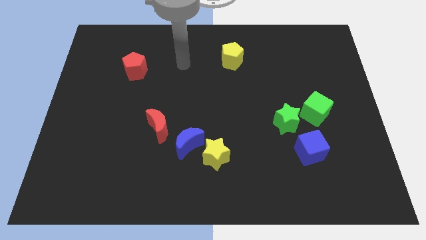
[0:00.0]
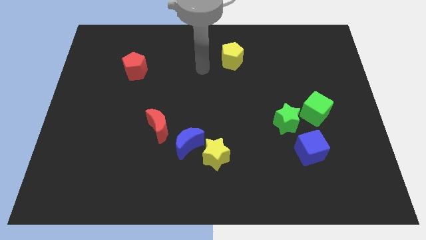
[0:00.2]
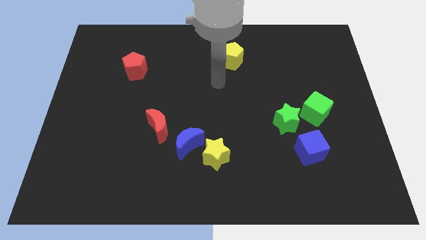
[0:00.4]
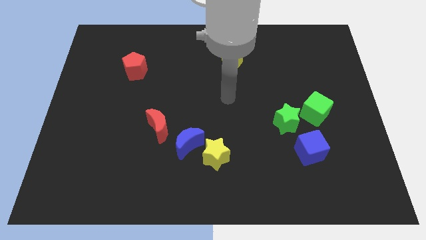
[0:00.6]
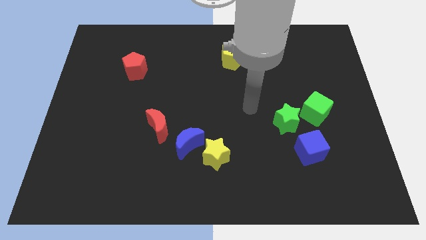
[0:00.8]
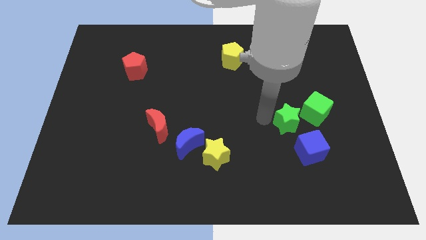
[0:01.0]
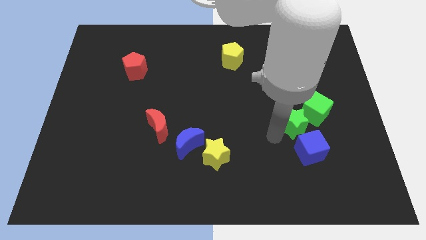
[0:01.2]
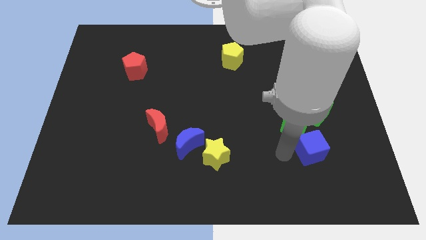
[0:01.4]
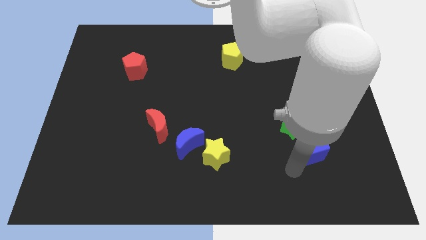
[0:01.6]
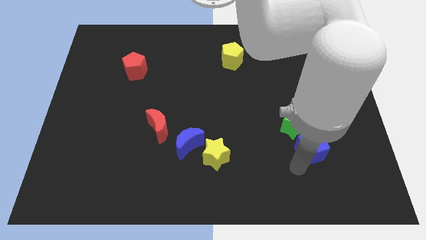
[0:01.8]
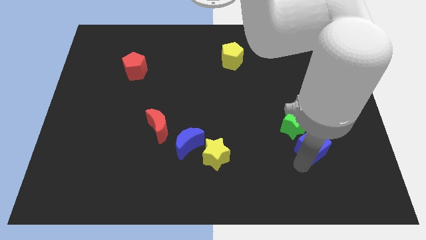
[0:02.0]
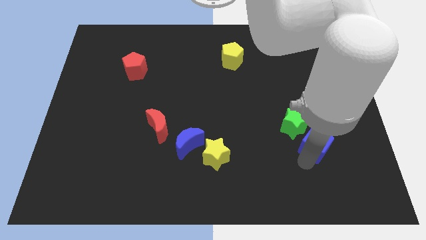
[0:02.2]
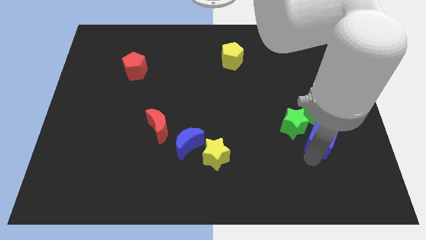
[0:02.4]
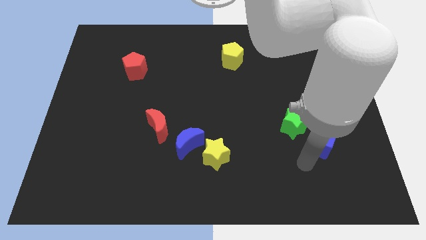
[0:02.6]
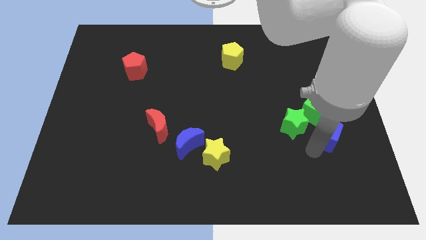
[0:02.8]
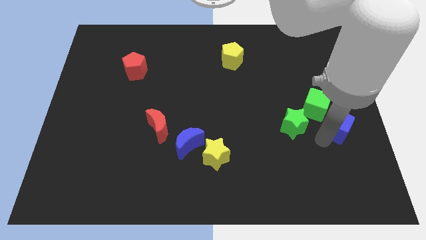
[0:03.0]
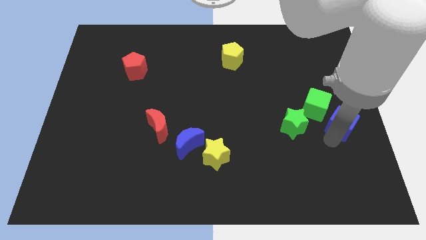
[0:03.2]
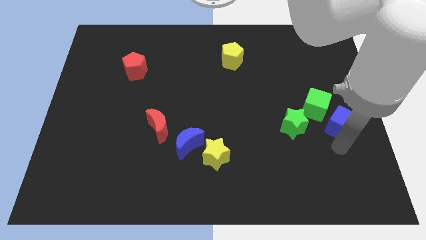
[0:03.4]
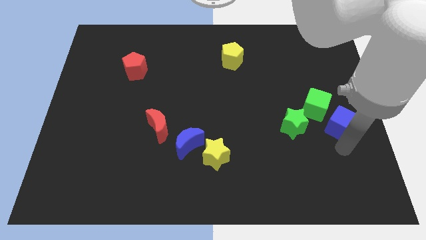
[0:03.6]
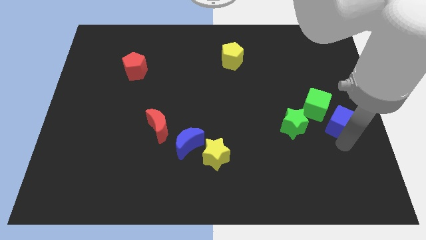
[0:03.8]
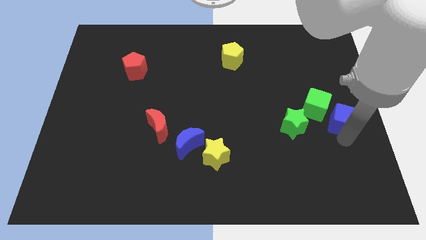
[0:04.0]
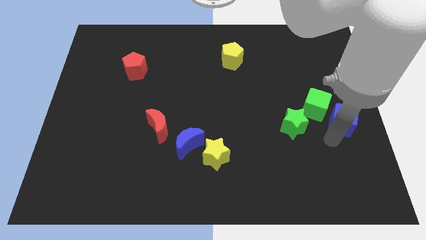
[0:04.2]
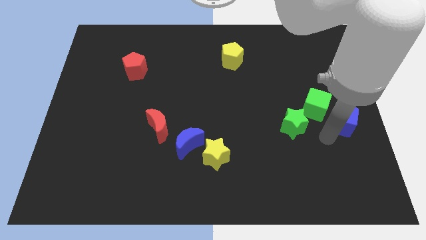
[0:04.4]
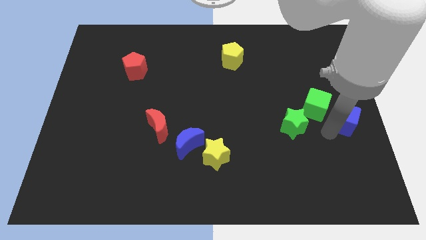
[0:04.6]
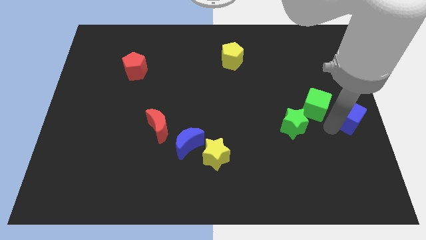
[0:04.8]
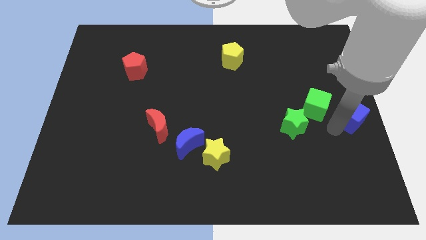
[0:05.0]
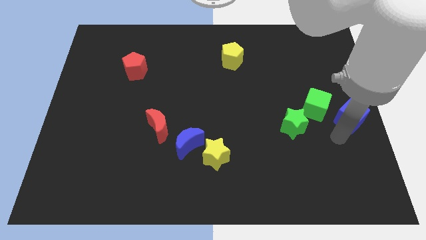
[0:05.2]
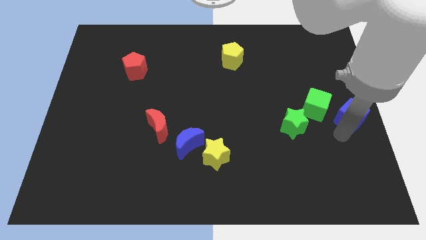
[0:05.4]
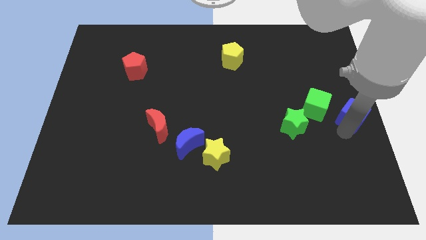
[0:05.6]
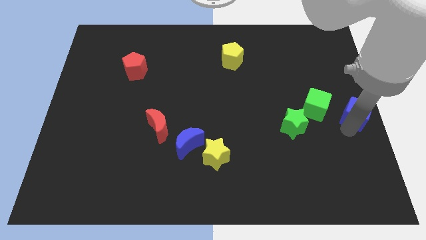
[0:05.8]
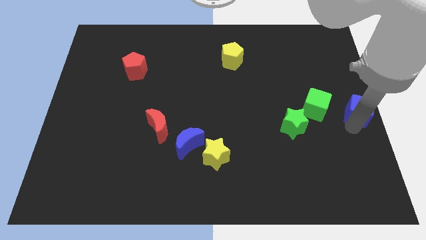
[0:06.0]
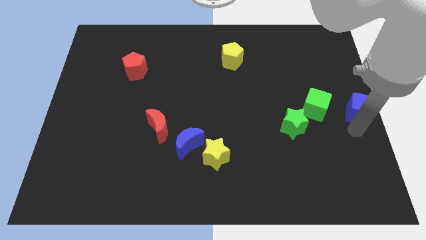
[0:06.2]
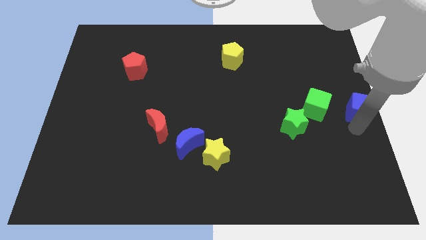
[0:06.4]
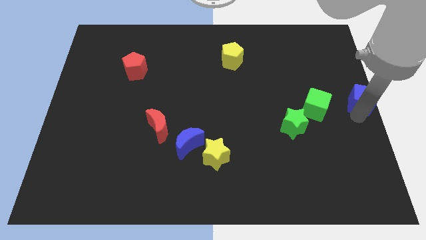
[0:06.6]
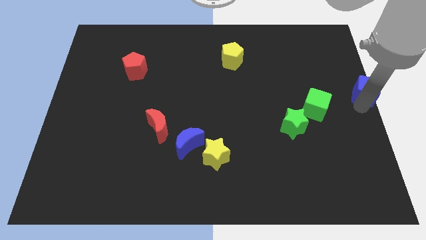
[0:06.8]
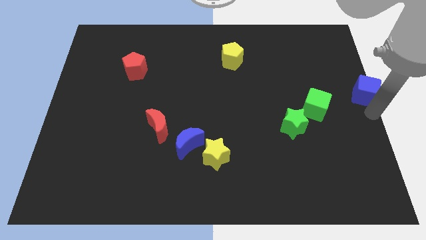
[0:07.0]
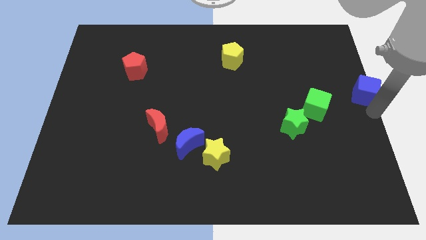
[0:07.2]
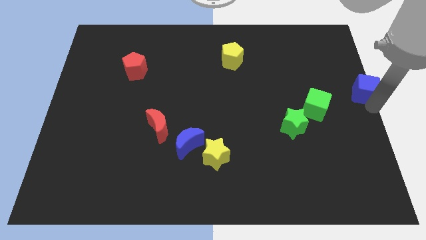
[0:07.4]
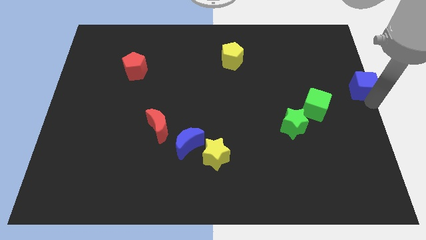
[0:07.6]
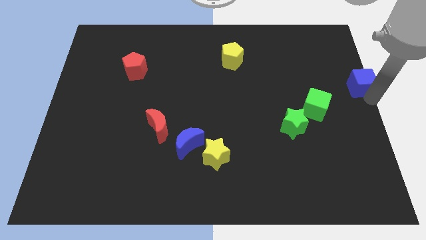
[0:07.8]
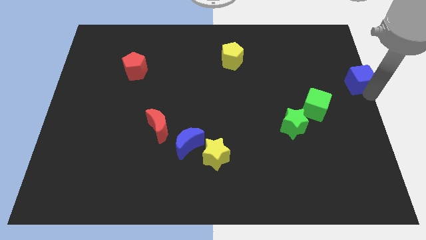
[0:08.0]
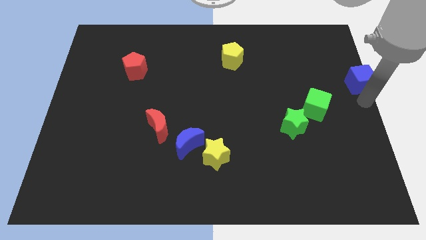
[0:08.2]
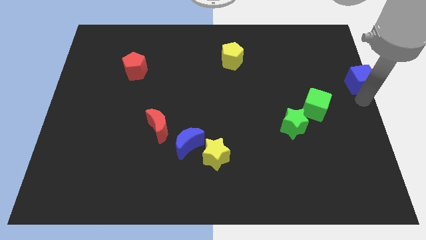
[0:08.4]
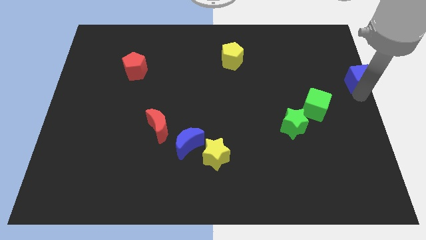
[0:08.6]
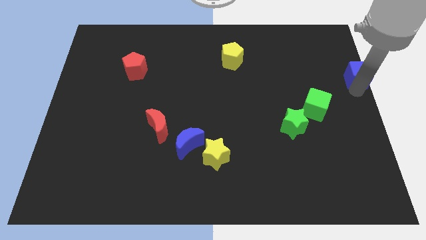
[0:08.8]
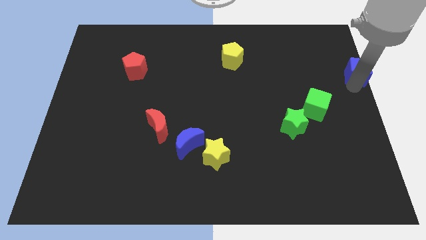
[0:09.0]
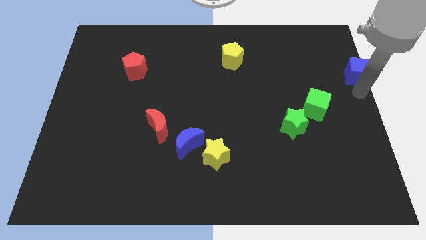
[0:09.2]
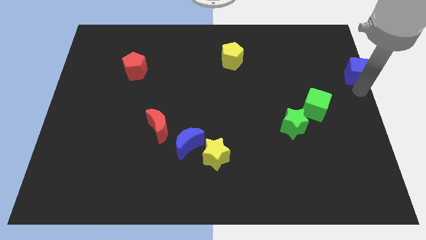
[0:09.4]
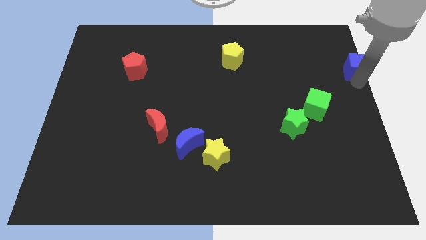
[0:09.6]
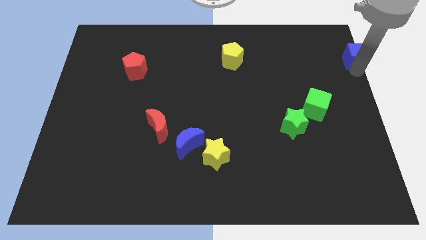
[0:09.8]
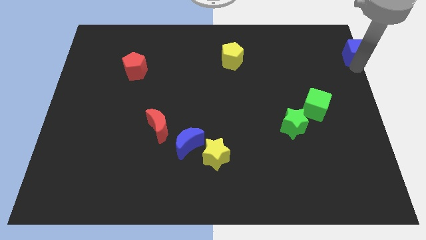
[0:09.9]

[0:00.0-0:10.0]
slide the blue cube to the top right corner

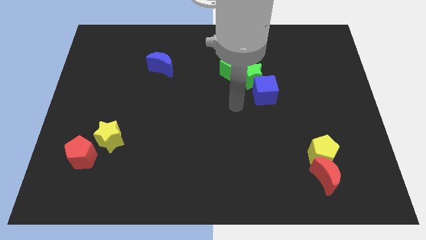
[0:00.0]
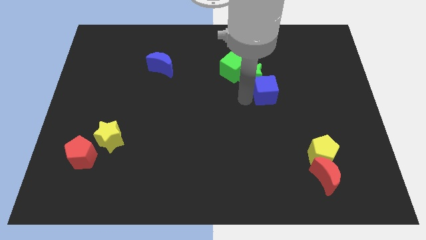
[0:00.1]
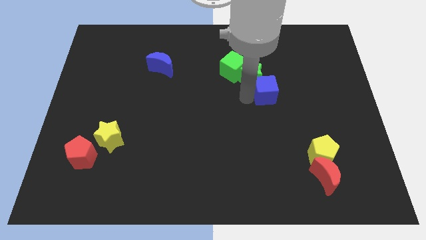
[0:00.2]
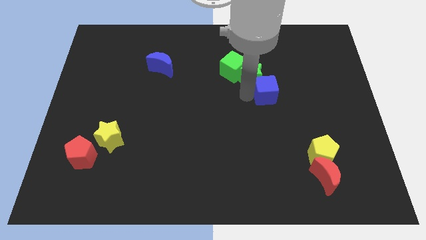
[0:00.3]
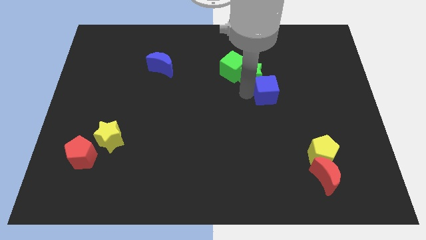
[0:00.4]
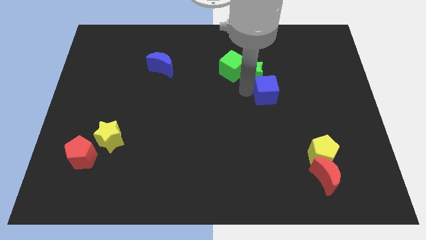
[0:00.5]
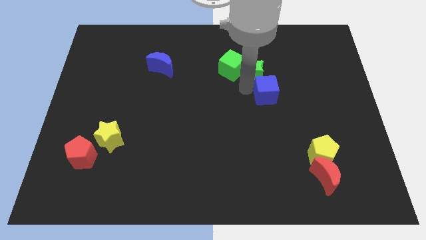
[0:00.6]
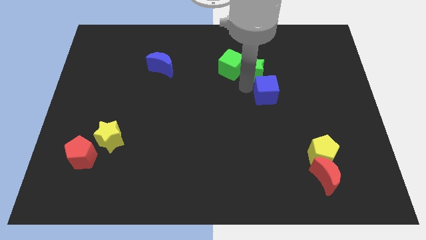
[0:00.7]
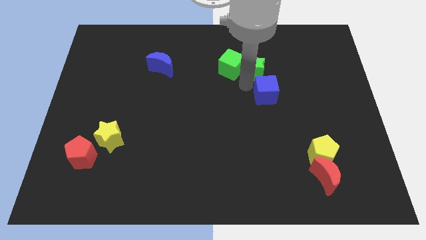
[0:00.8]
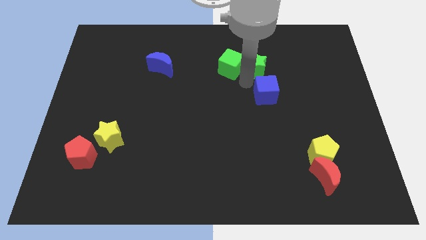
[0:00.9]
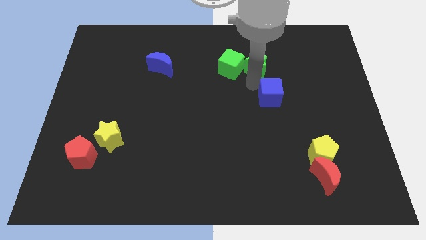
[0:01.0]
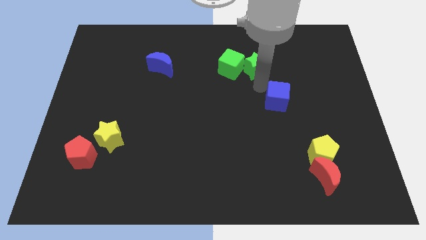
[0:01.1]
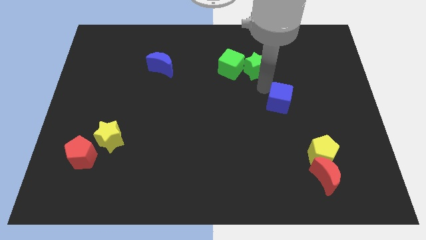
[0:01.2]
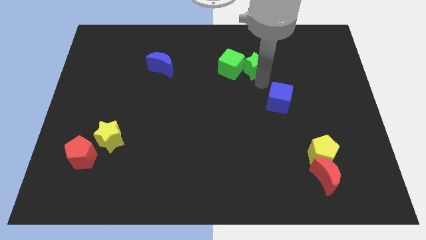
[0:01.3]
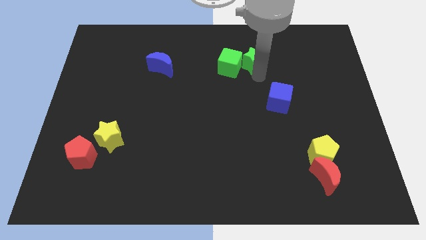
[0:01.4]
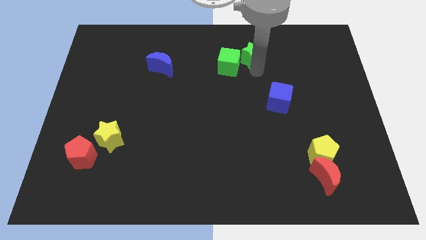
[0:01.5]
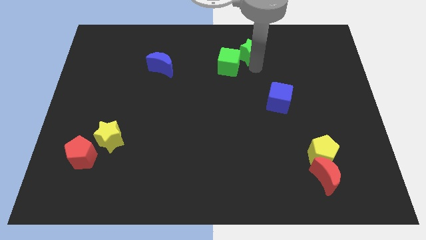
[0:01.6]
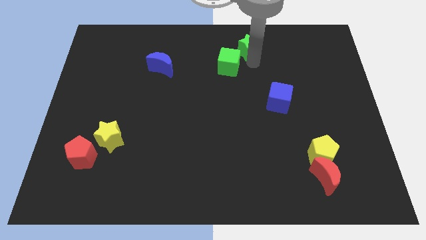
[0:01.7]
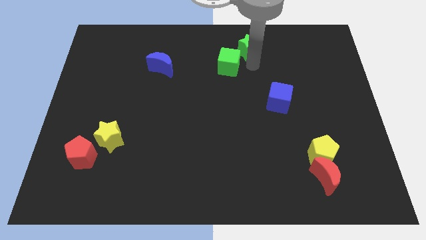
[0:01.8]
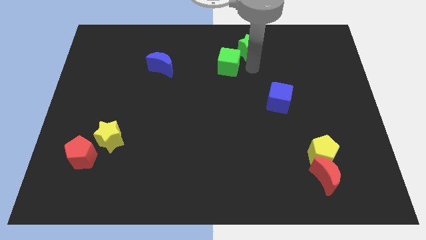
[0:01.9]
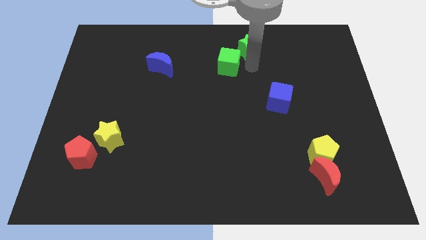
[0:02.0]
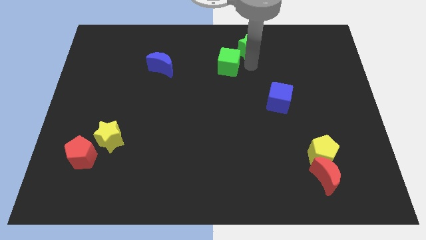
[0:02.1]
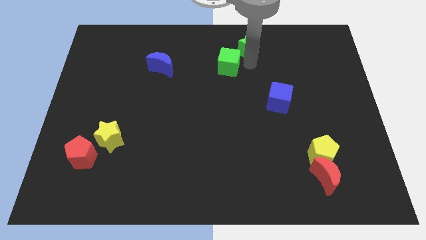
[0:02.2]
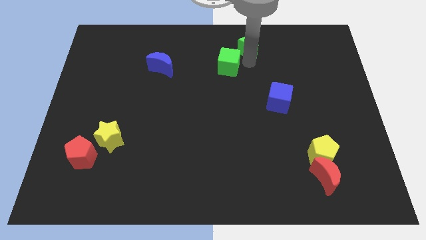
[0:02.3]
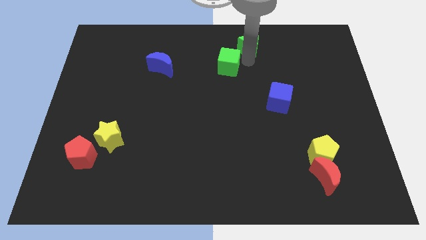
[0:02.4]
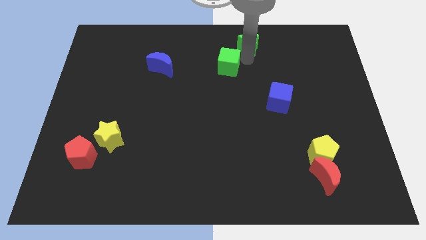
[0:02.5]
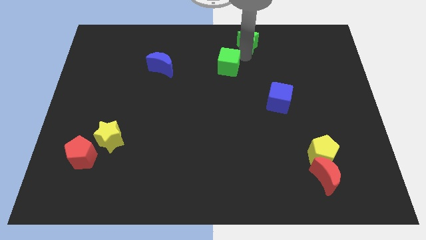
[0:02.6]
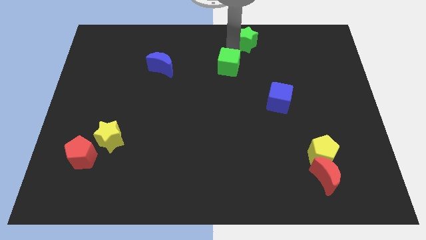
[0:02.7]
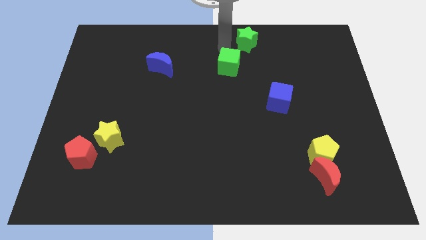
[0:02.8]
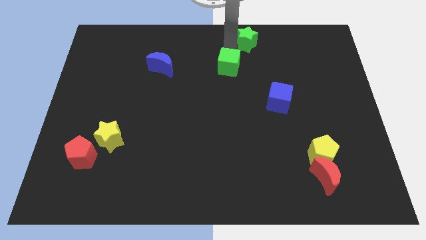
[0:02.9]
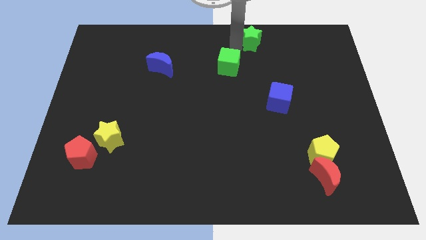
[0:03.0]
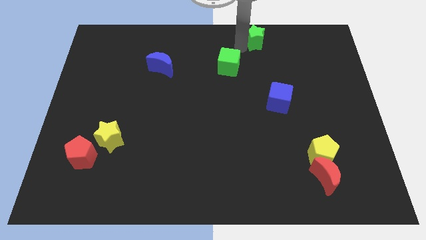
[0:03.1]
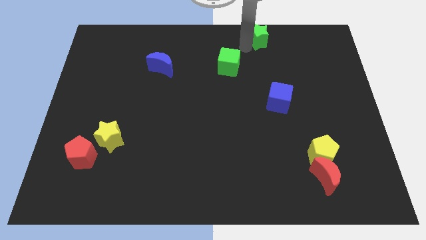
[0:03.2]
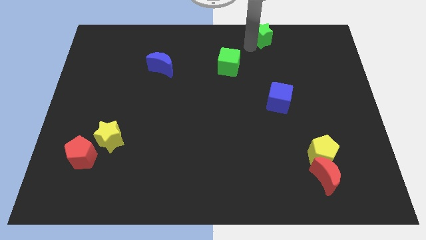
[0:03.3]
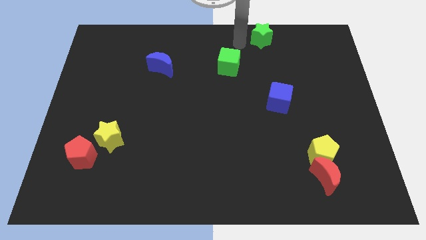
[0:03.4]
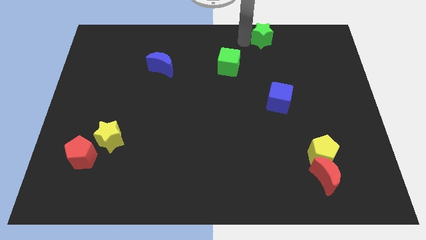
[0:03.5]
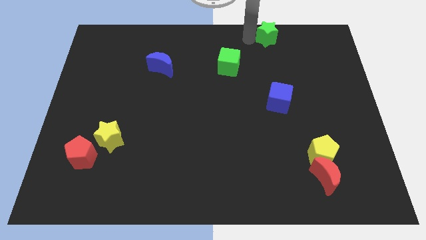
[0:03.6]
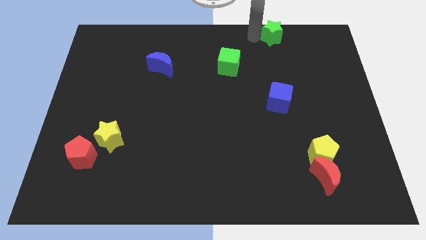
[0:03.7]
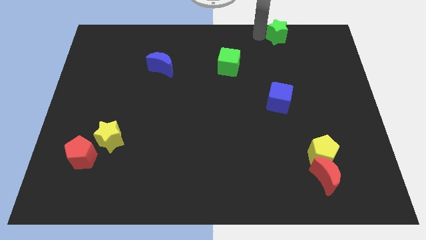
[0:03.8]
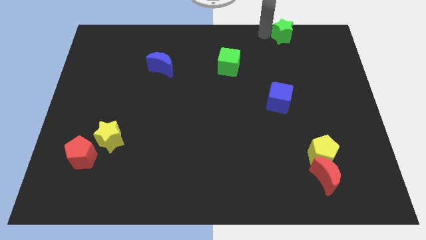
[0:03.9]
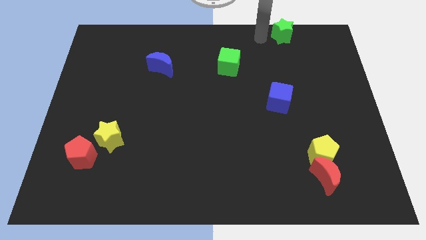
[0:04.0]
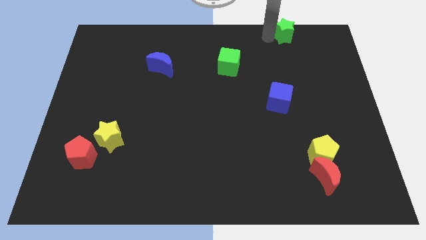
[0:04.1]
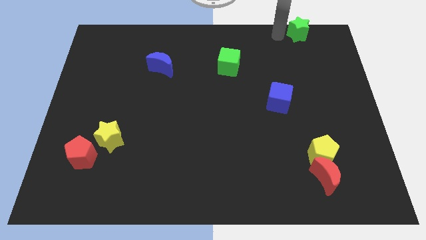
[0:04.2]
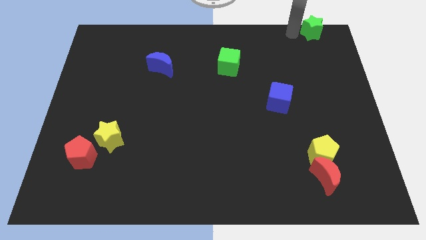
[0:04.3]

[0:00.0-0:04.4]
slide the green star to the top right of the board
